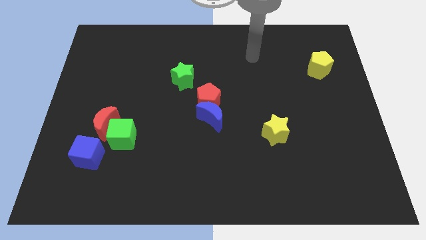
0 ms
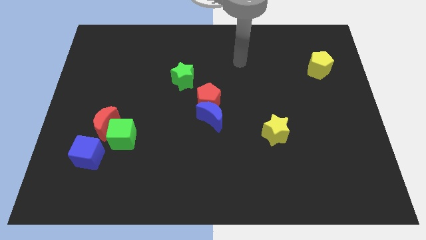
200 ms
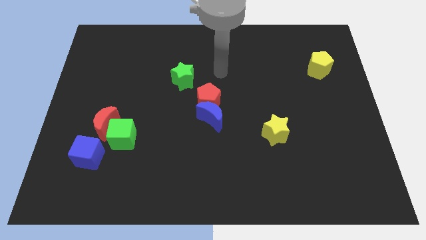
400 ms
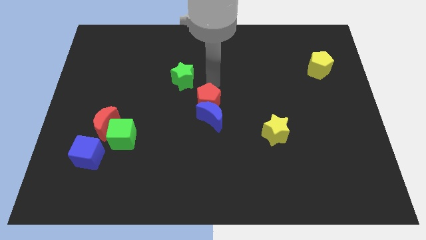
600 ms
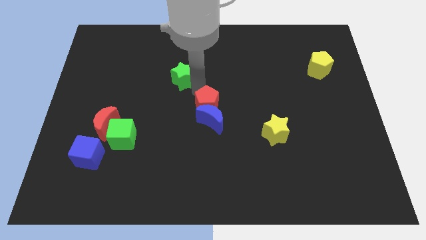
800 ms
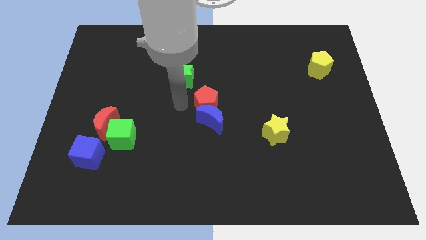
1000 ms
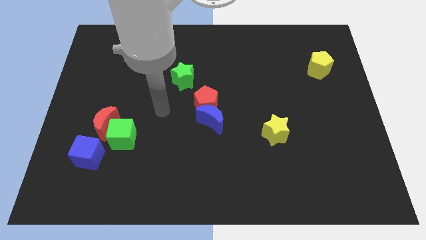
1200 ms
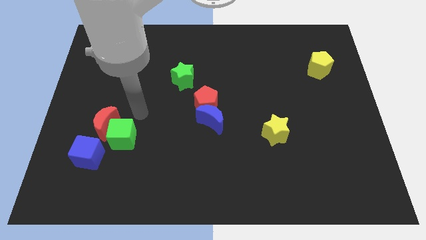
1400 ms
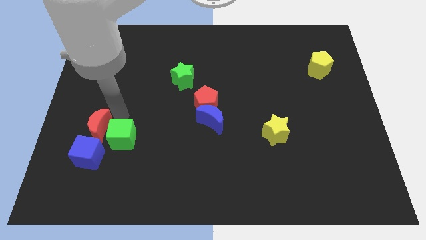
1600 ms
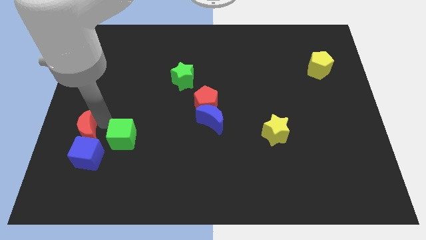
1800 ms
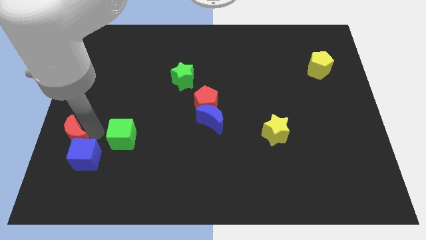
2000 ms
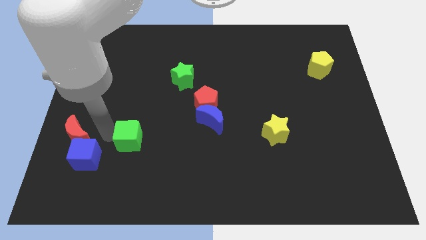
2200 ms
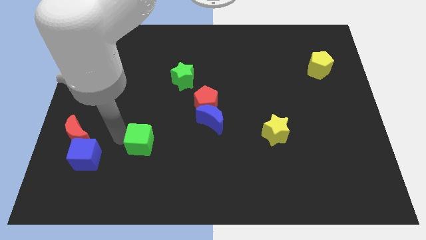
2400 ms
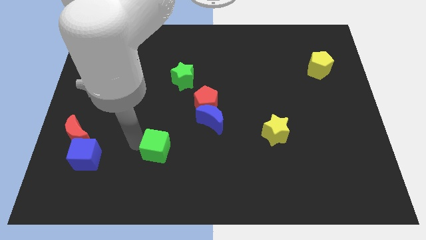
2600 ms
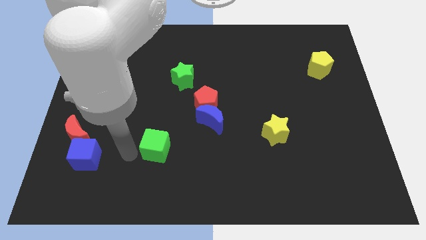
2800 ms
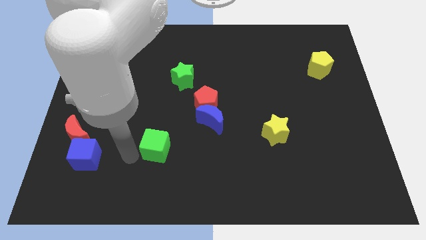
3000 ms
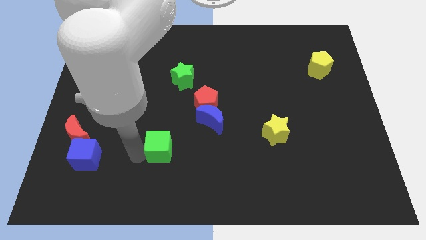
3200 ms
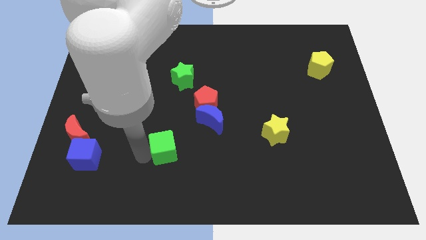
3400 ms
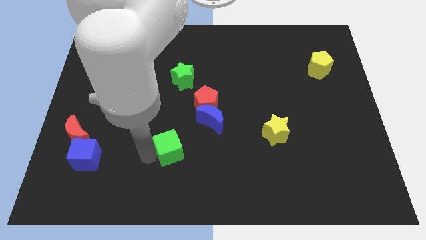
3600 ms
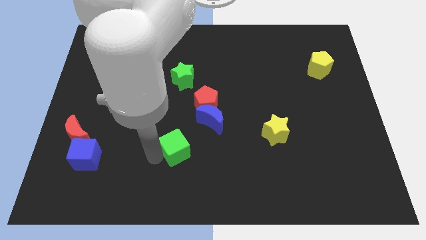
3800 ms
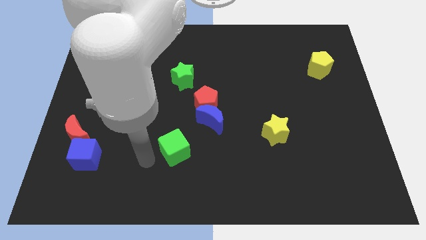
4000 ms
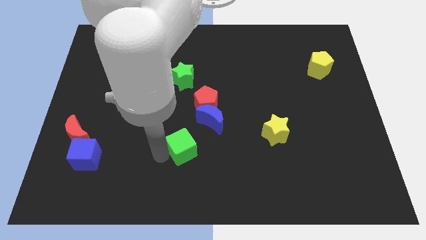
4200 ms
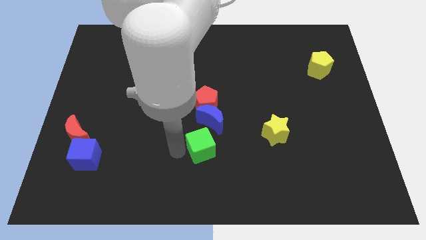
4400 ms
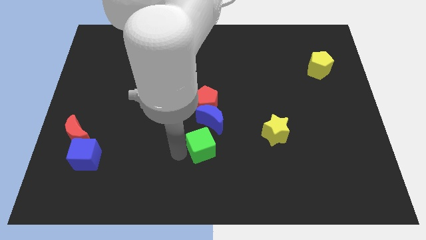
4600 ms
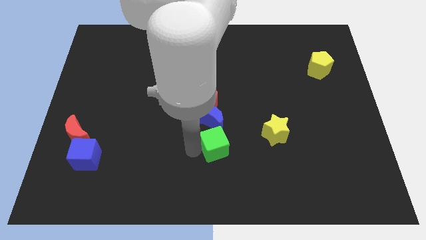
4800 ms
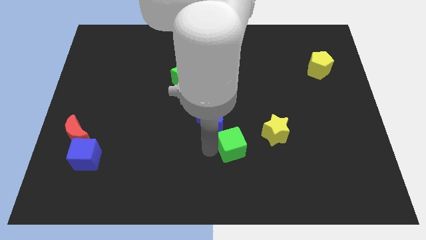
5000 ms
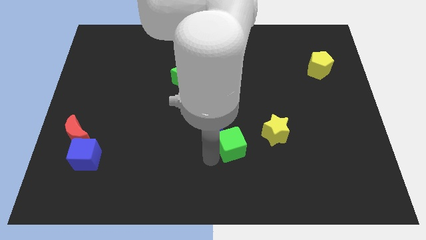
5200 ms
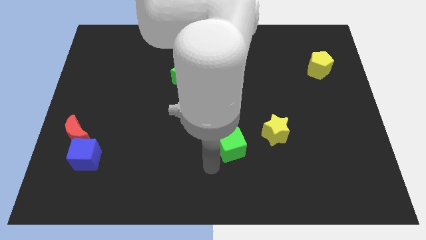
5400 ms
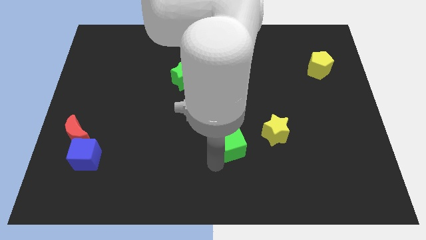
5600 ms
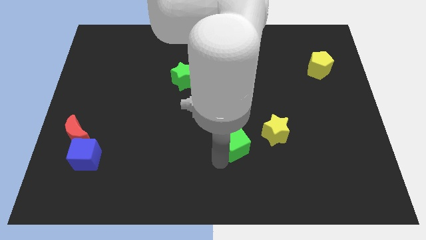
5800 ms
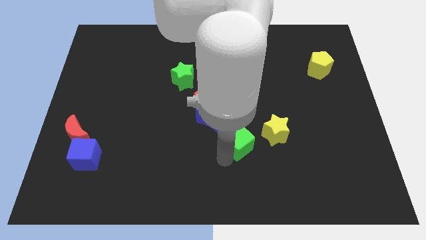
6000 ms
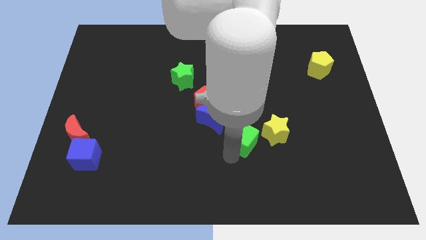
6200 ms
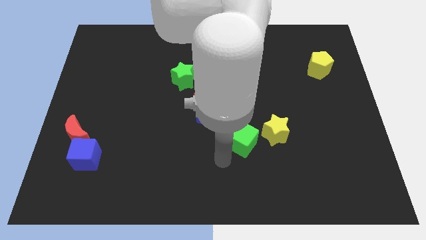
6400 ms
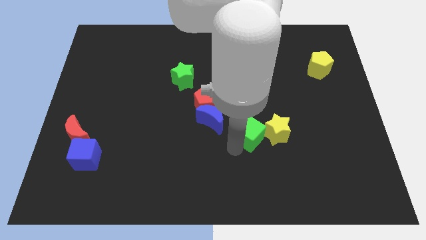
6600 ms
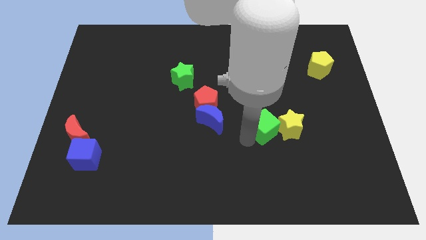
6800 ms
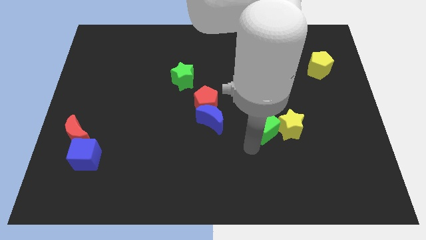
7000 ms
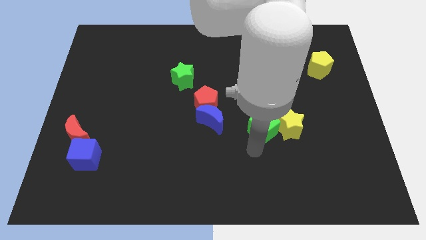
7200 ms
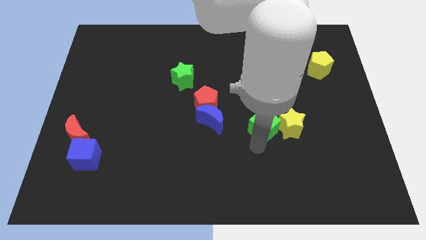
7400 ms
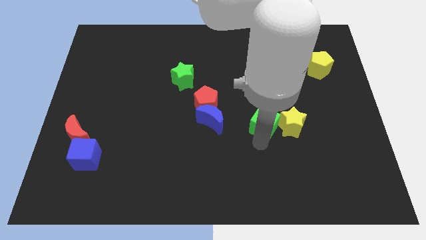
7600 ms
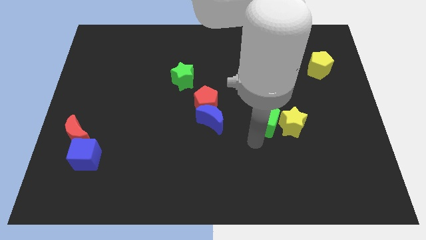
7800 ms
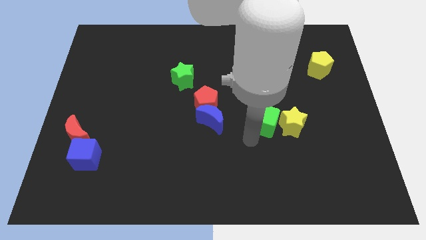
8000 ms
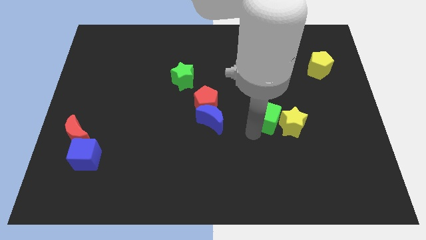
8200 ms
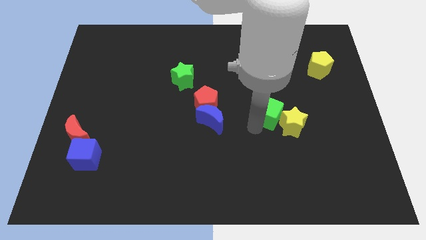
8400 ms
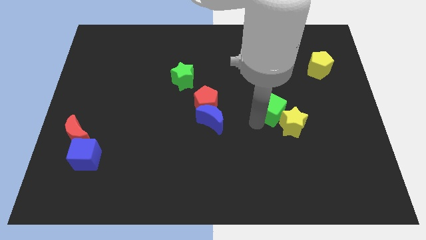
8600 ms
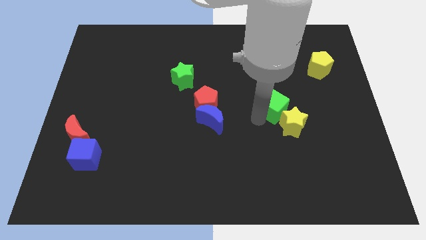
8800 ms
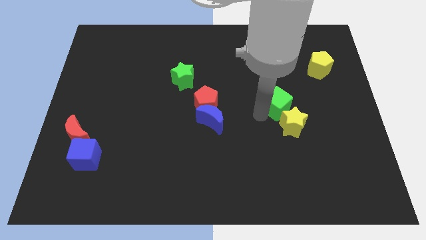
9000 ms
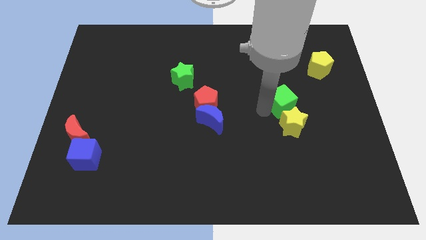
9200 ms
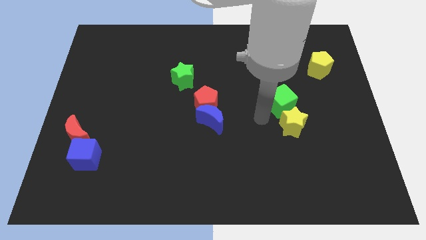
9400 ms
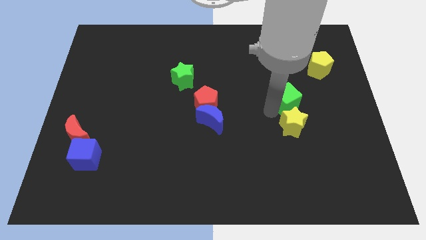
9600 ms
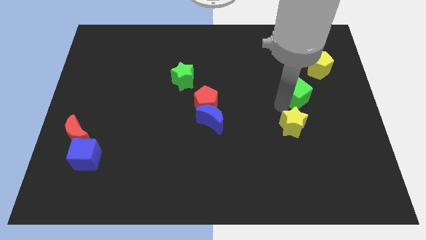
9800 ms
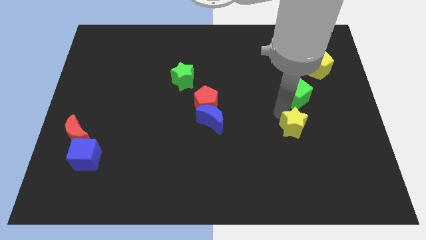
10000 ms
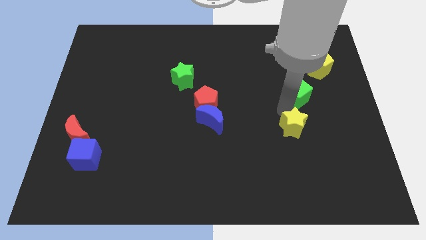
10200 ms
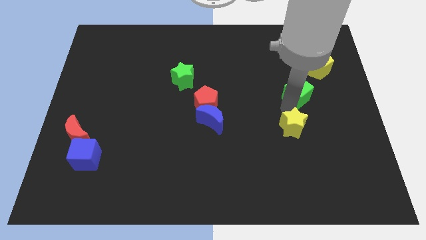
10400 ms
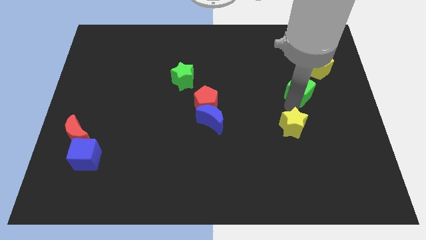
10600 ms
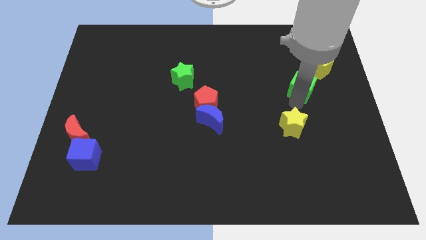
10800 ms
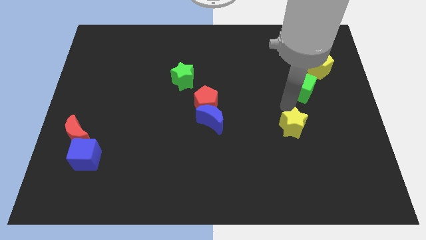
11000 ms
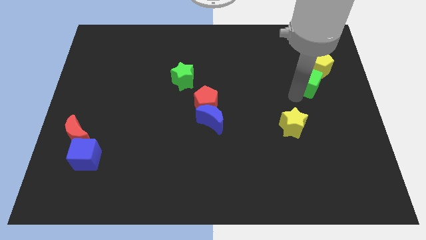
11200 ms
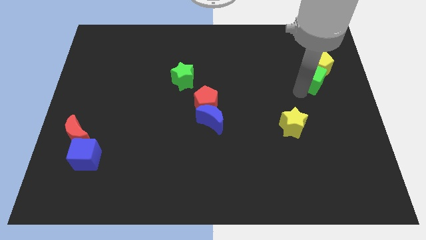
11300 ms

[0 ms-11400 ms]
push the green cube close to the yellow pentagon

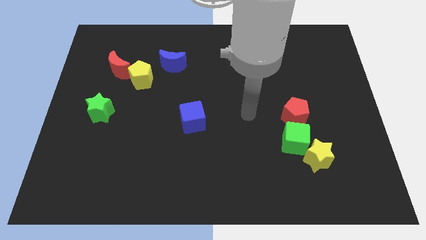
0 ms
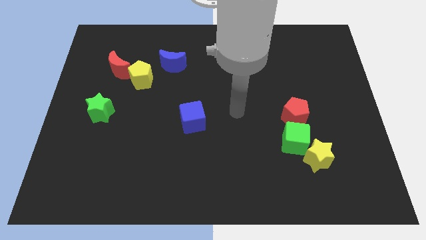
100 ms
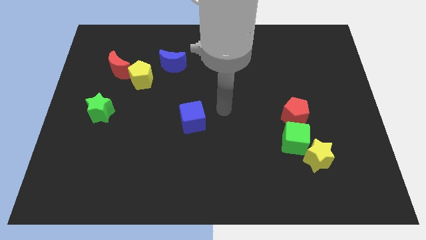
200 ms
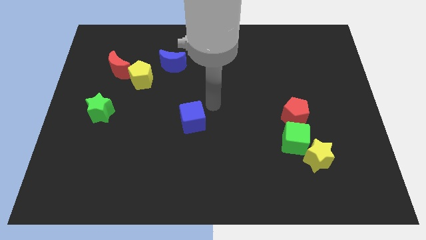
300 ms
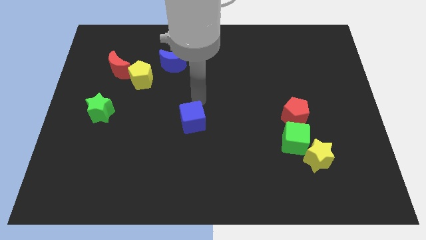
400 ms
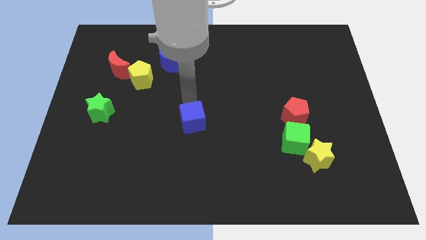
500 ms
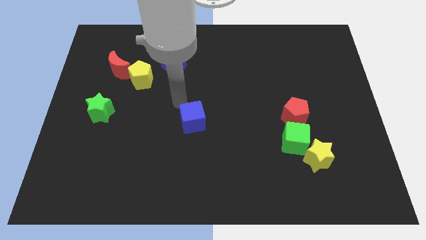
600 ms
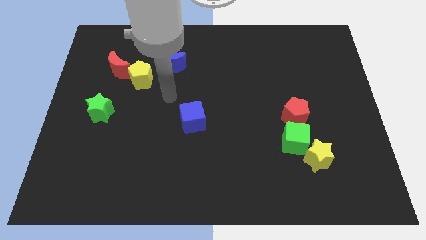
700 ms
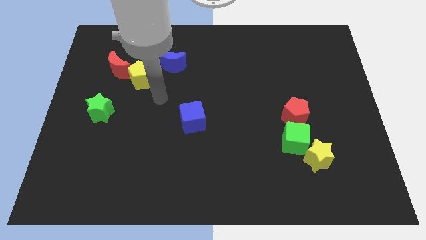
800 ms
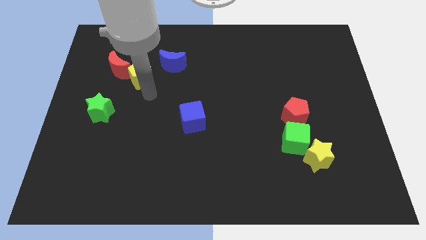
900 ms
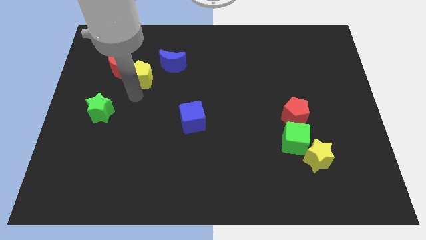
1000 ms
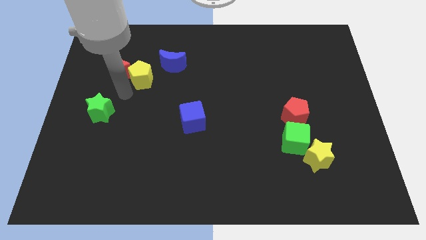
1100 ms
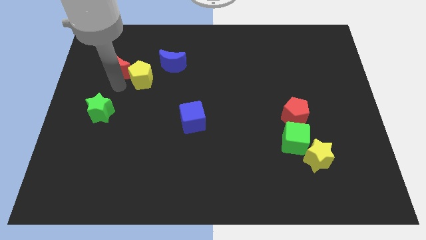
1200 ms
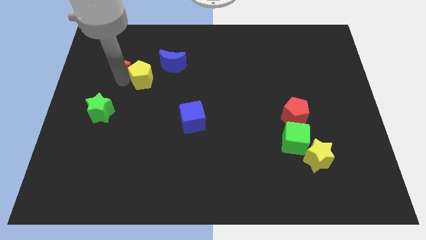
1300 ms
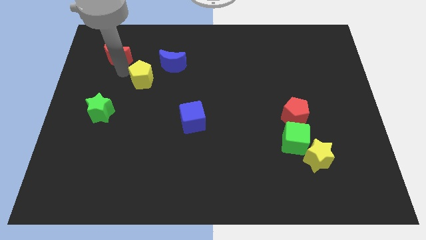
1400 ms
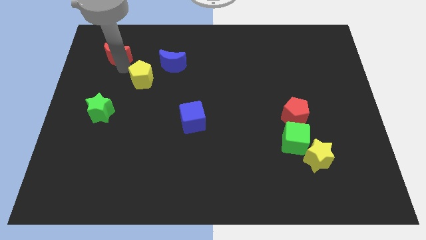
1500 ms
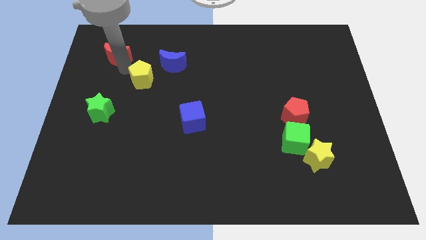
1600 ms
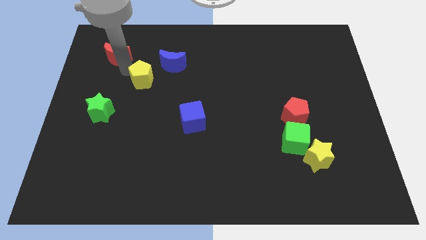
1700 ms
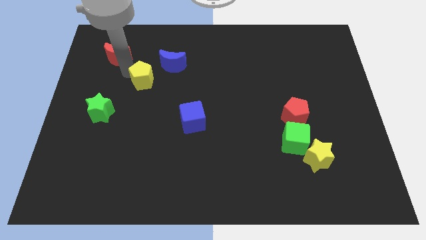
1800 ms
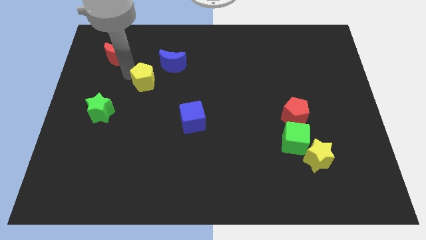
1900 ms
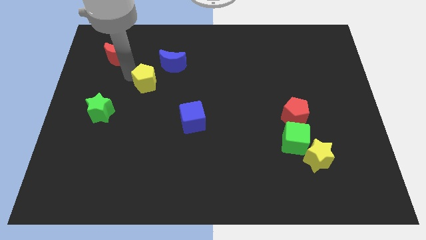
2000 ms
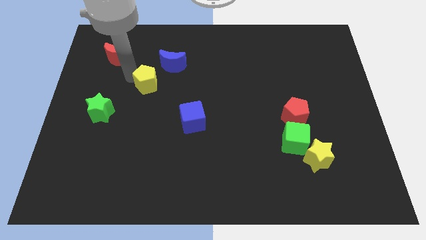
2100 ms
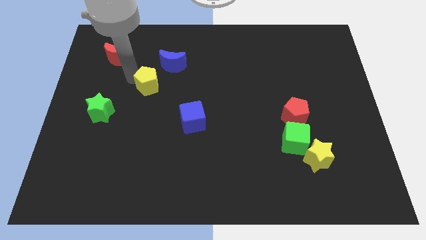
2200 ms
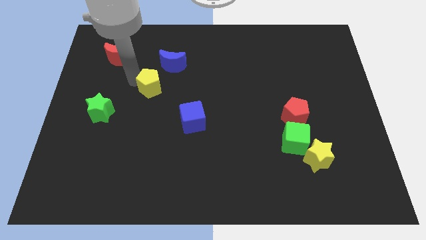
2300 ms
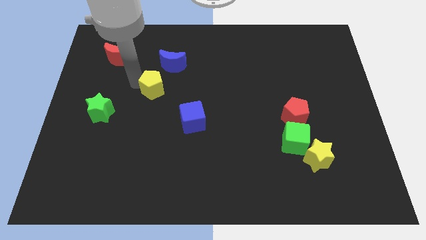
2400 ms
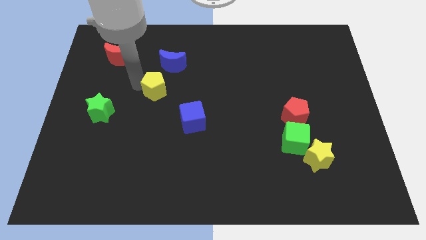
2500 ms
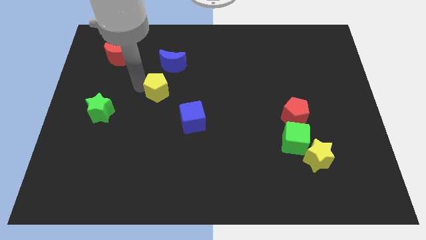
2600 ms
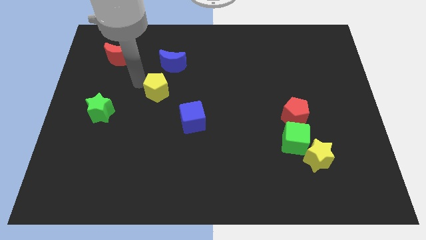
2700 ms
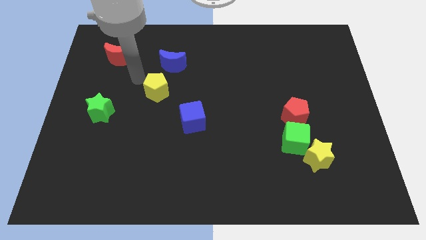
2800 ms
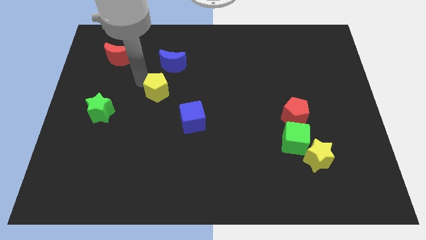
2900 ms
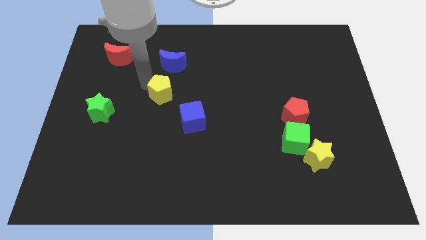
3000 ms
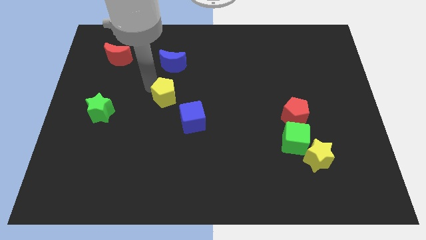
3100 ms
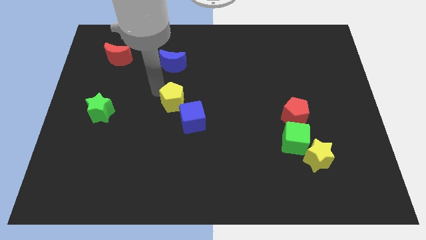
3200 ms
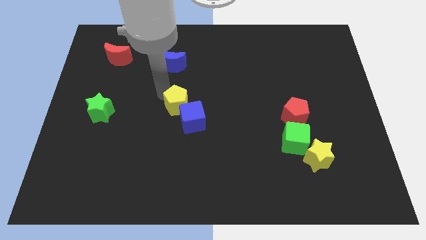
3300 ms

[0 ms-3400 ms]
slide the yellow pentagon to the blue cube
